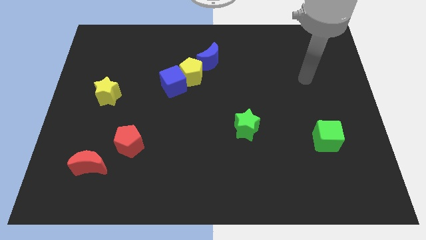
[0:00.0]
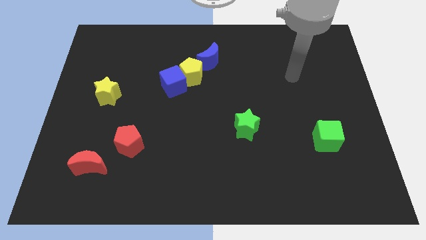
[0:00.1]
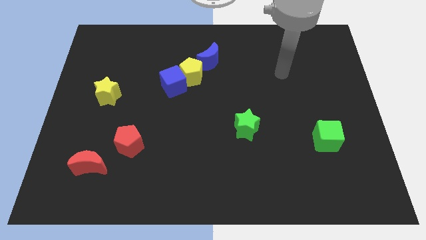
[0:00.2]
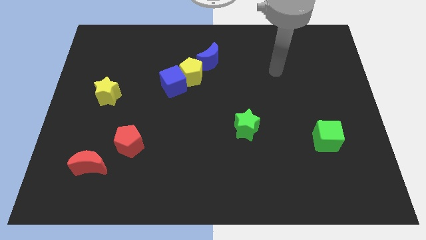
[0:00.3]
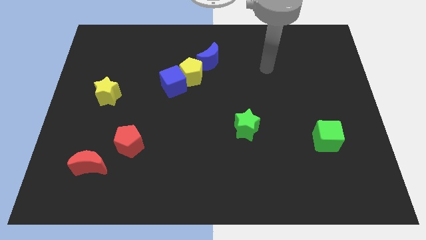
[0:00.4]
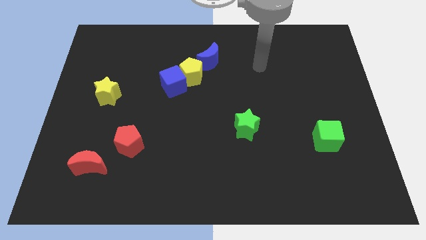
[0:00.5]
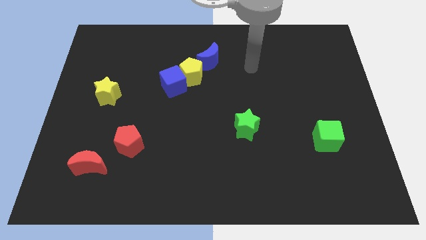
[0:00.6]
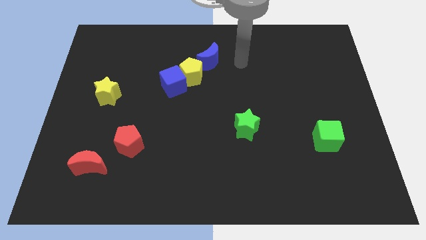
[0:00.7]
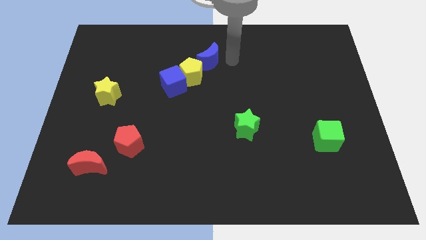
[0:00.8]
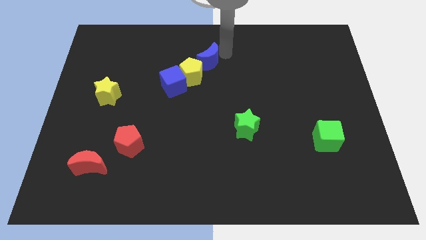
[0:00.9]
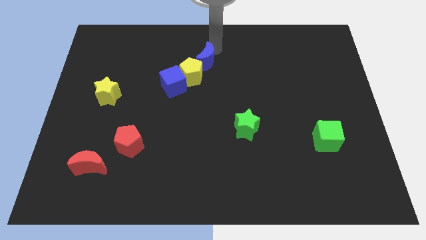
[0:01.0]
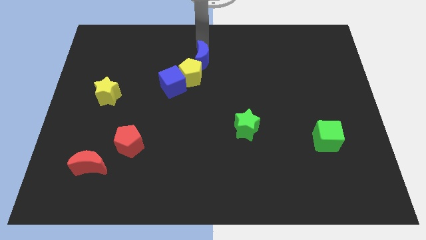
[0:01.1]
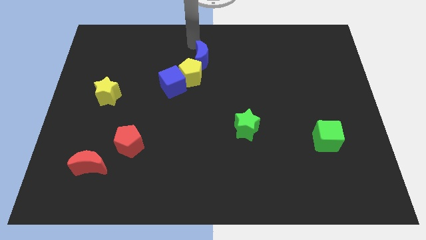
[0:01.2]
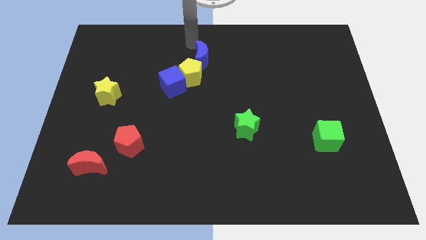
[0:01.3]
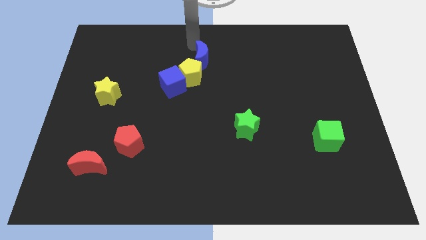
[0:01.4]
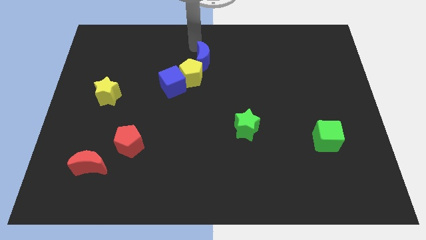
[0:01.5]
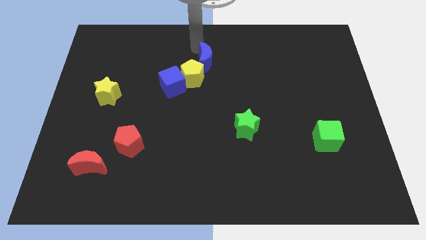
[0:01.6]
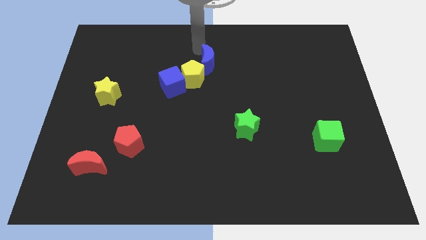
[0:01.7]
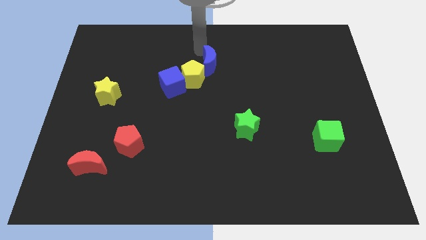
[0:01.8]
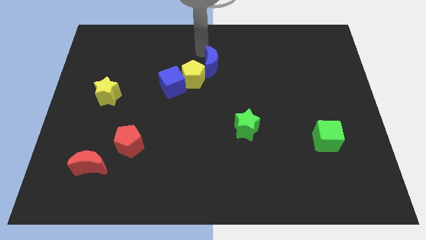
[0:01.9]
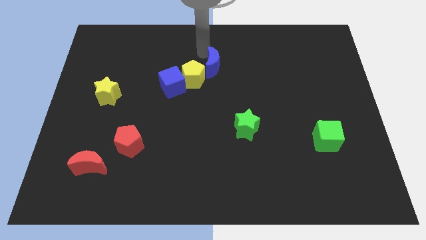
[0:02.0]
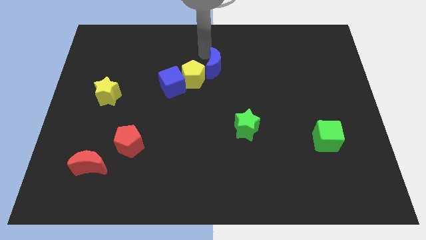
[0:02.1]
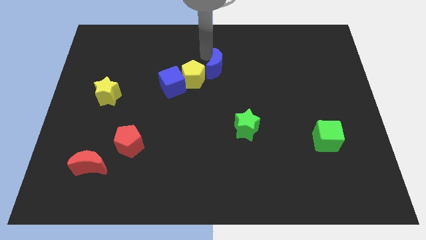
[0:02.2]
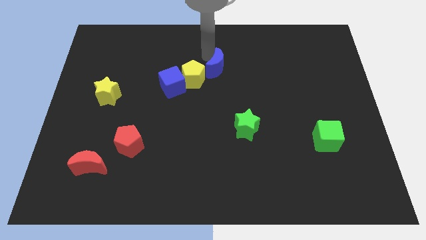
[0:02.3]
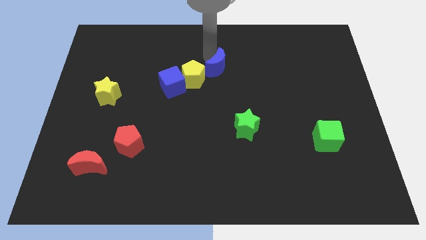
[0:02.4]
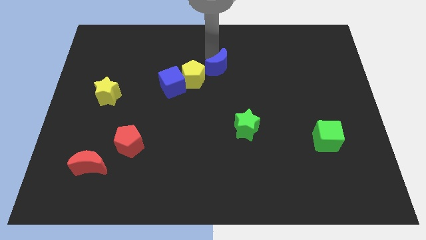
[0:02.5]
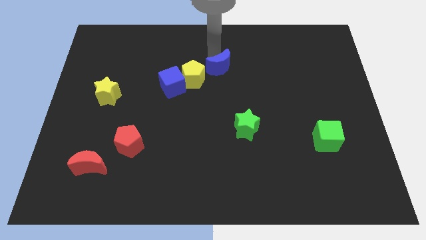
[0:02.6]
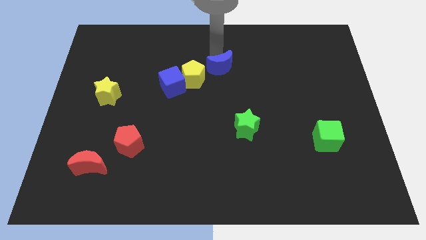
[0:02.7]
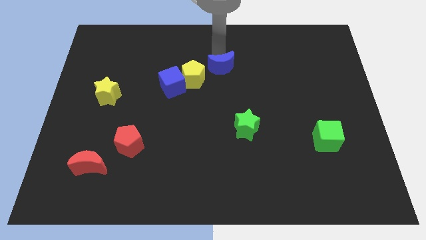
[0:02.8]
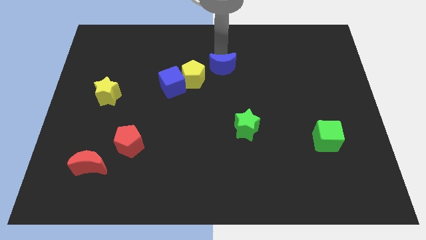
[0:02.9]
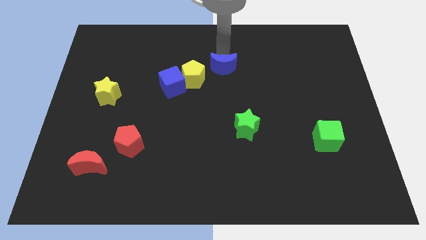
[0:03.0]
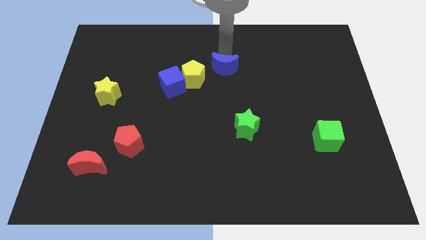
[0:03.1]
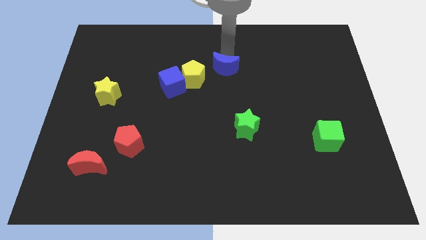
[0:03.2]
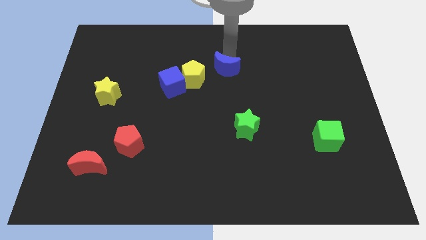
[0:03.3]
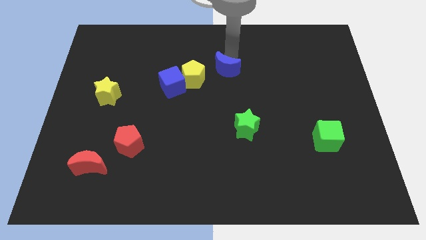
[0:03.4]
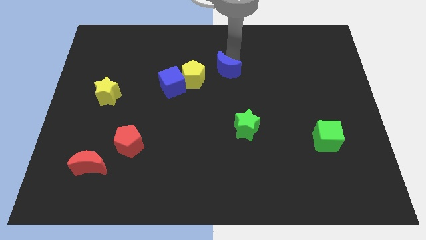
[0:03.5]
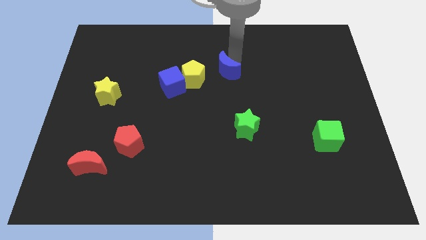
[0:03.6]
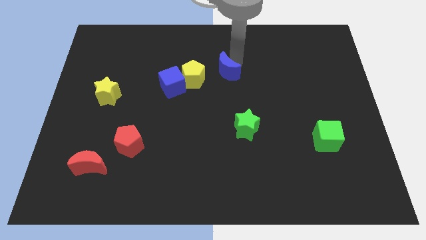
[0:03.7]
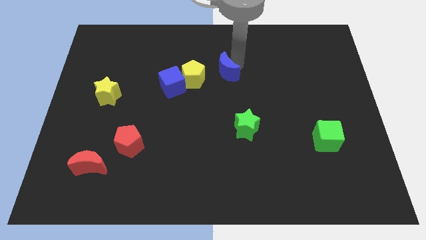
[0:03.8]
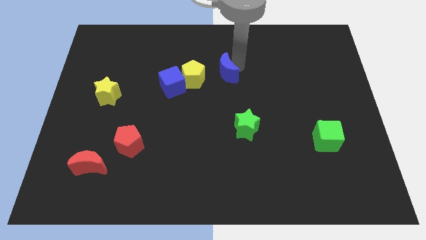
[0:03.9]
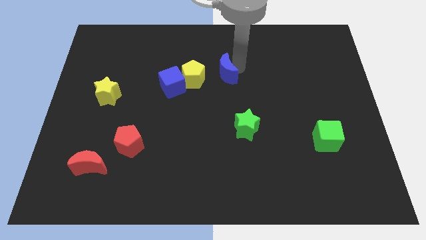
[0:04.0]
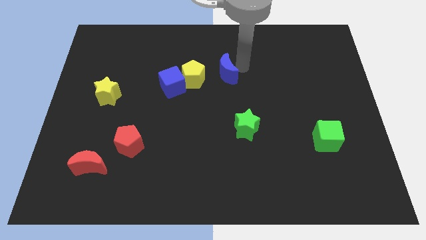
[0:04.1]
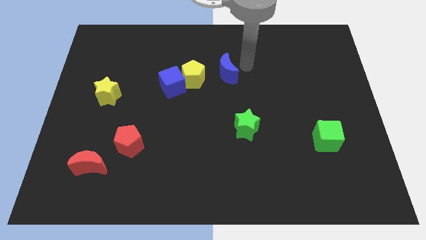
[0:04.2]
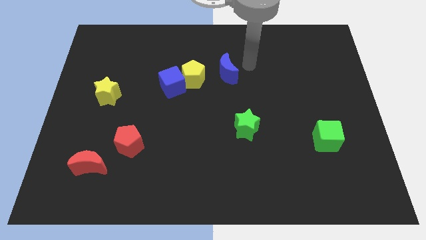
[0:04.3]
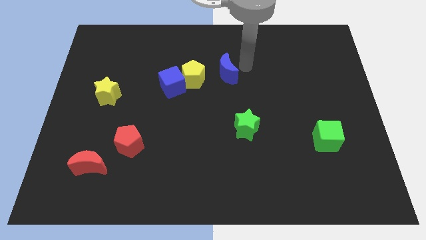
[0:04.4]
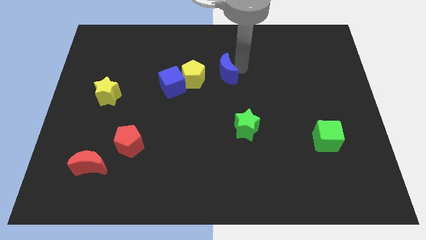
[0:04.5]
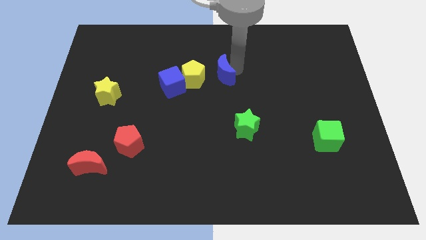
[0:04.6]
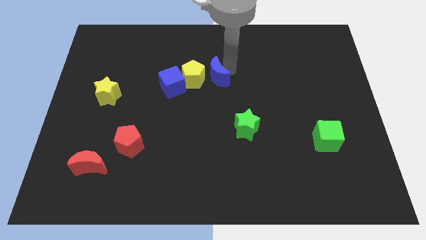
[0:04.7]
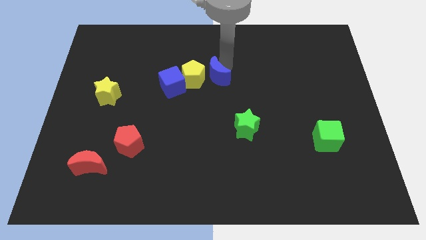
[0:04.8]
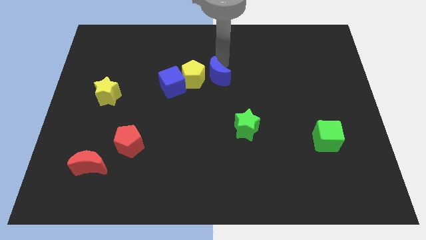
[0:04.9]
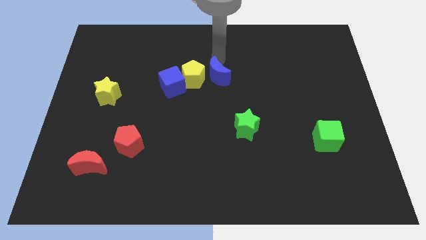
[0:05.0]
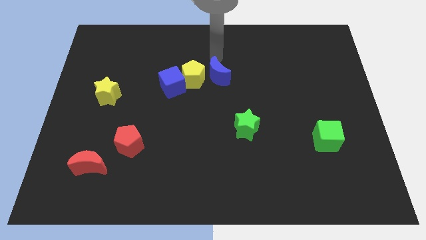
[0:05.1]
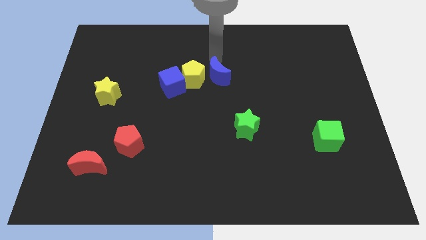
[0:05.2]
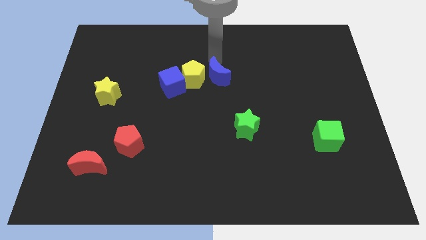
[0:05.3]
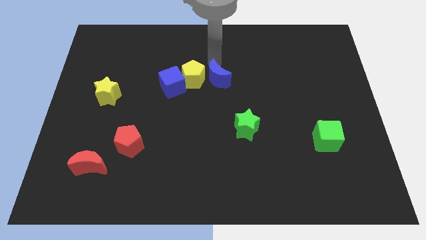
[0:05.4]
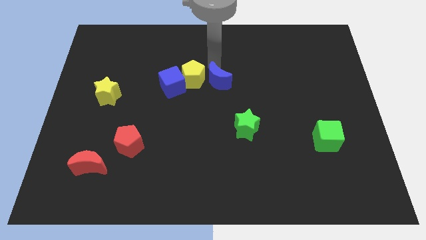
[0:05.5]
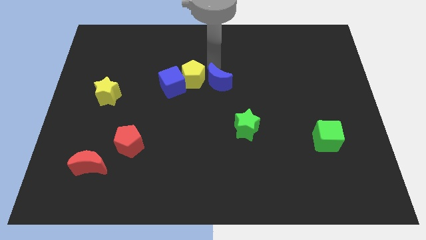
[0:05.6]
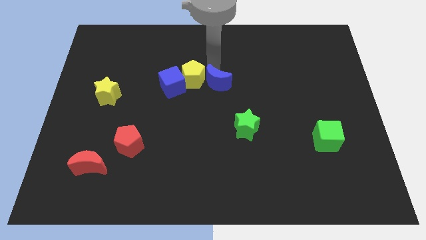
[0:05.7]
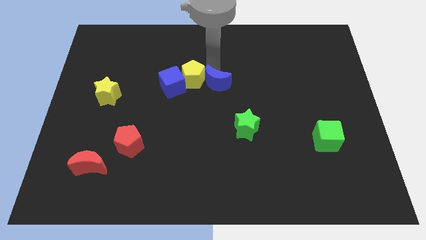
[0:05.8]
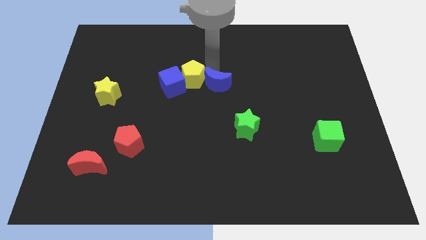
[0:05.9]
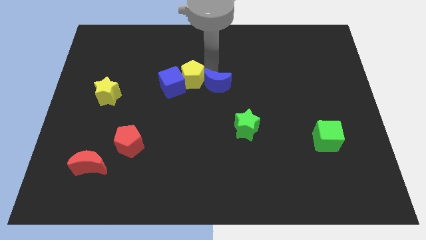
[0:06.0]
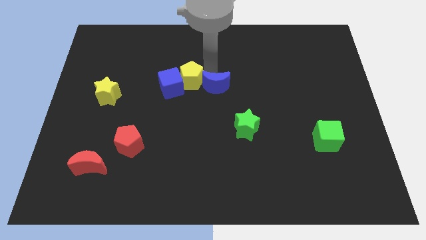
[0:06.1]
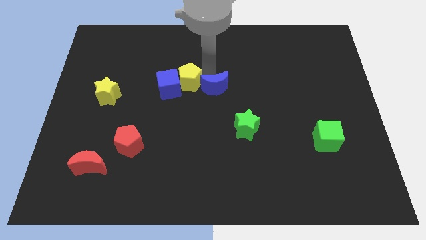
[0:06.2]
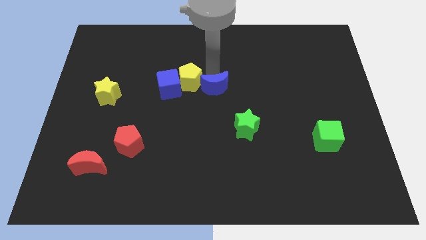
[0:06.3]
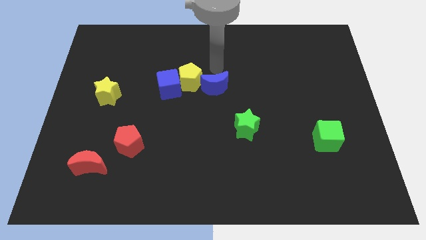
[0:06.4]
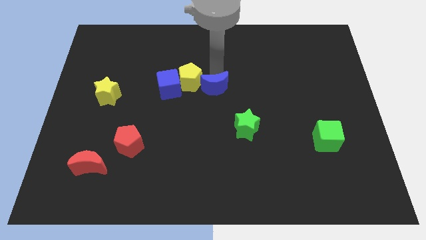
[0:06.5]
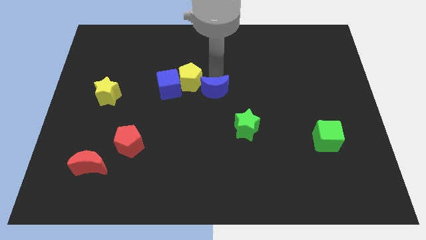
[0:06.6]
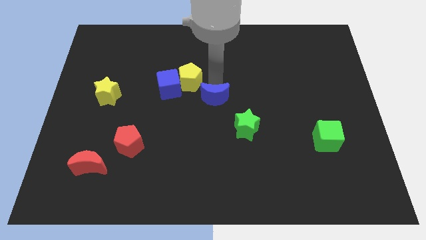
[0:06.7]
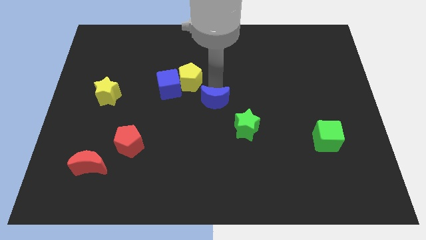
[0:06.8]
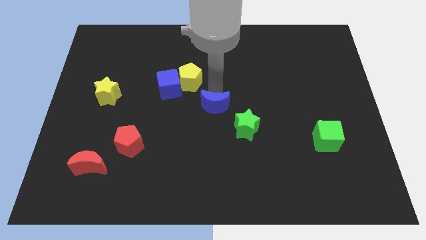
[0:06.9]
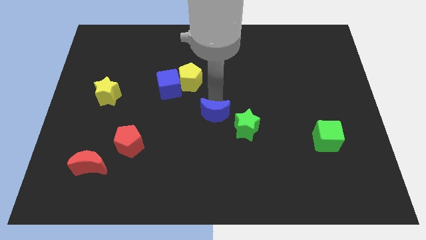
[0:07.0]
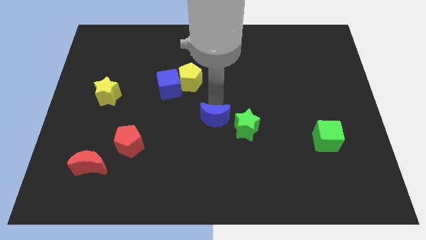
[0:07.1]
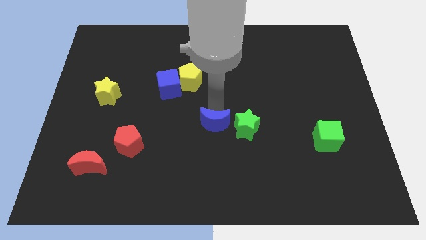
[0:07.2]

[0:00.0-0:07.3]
push the blue moon down

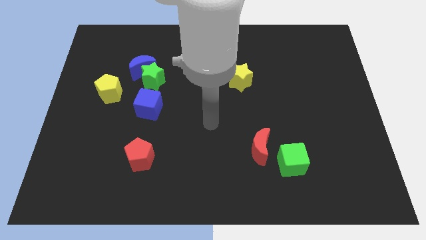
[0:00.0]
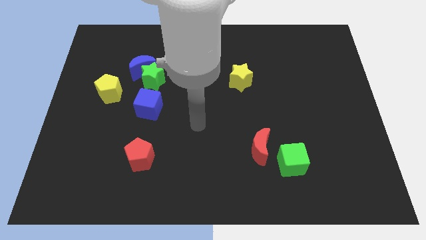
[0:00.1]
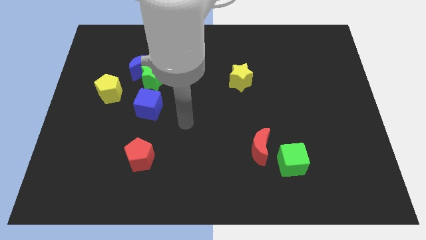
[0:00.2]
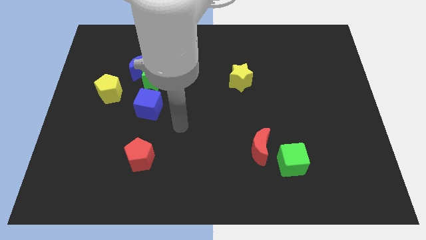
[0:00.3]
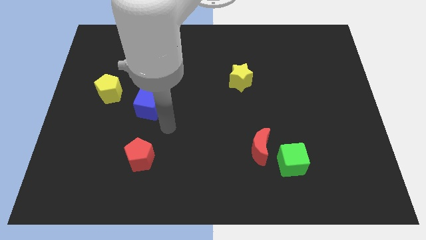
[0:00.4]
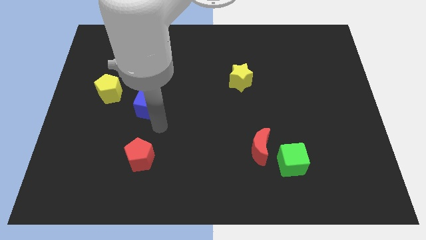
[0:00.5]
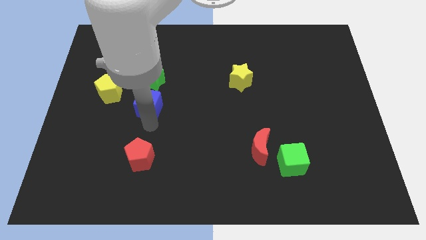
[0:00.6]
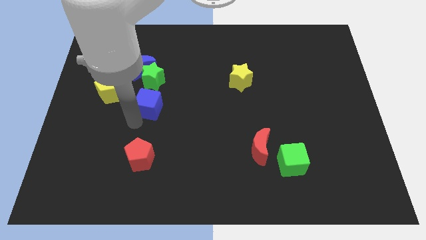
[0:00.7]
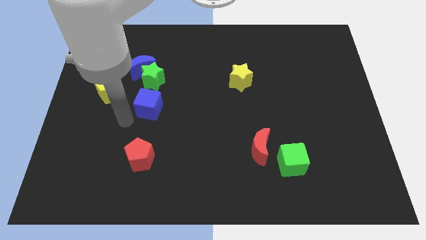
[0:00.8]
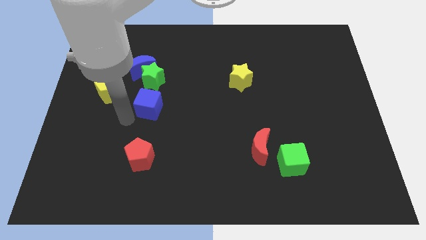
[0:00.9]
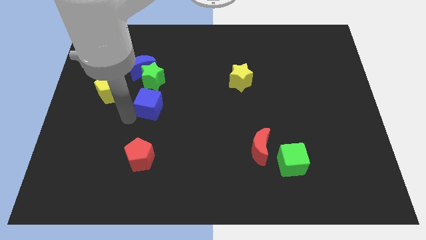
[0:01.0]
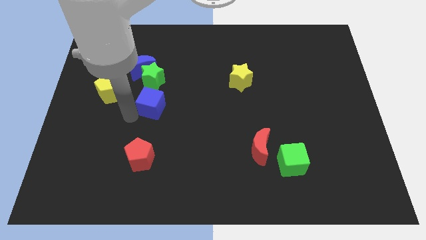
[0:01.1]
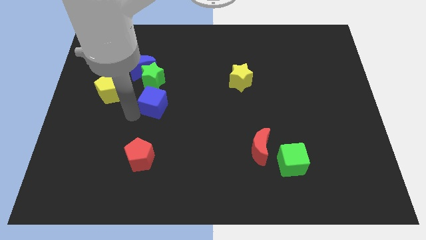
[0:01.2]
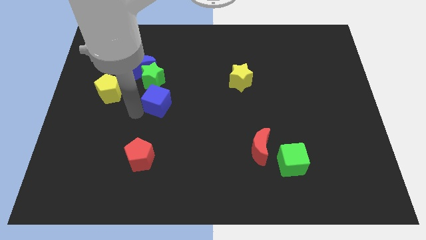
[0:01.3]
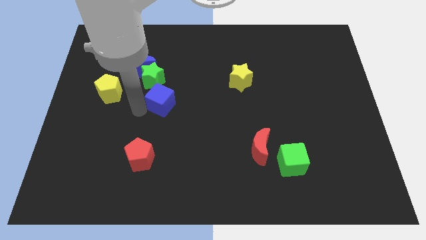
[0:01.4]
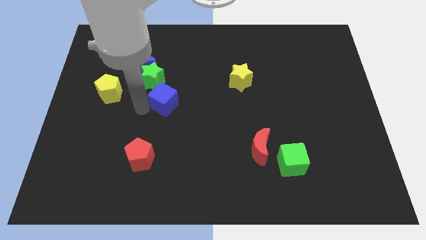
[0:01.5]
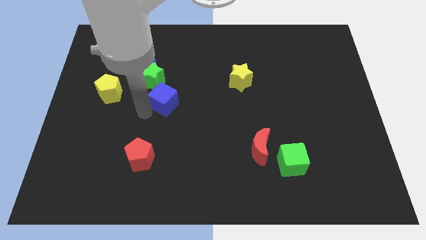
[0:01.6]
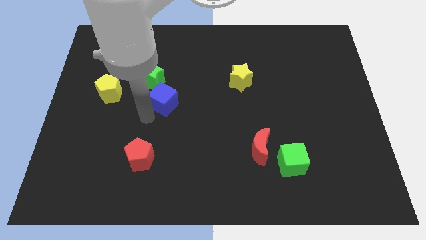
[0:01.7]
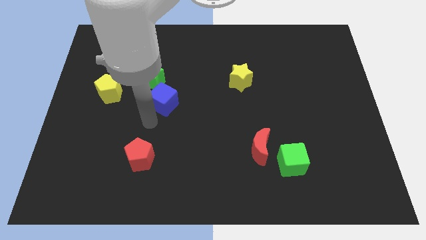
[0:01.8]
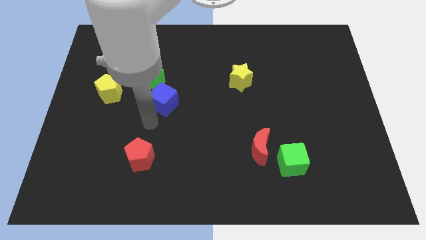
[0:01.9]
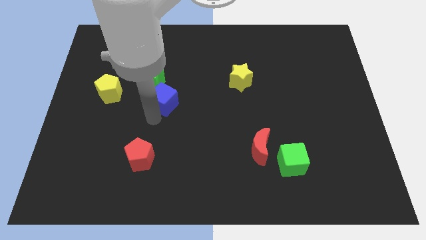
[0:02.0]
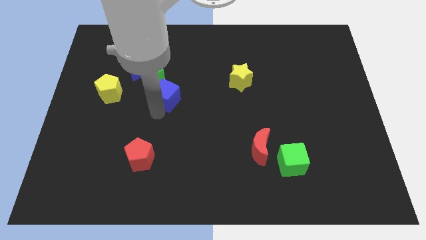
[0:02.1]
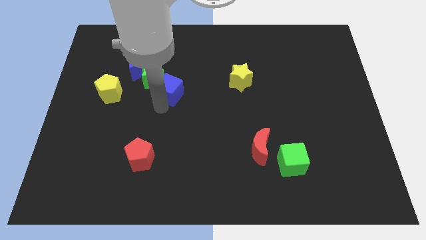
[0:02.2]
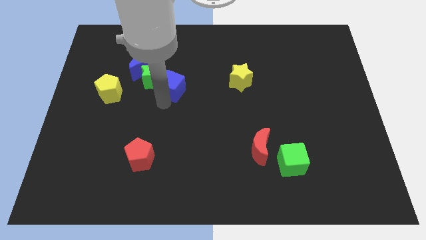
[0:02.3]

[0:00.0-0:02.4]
slightly push the blue cube up and then right
